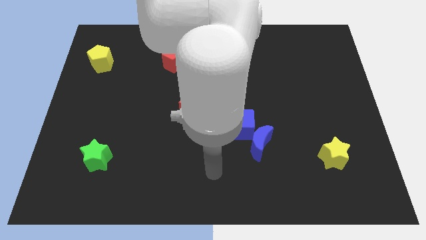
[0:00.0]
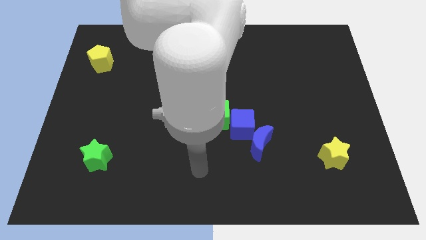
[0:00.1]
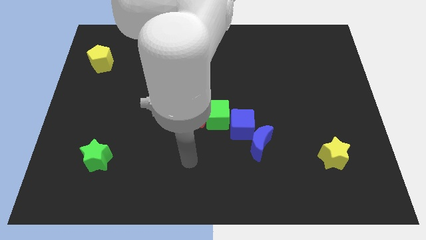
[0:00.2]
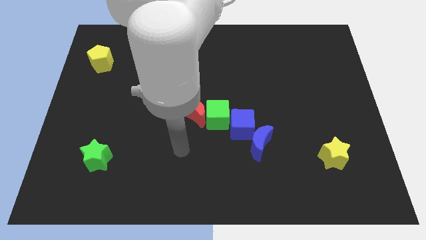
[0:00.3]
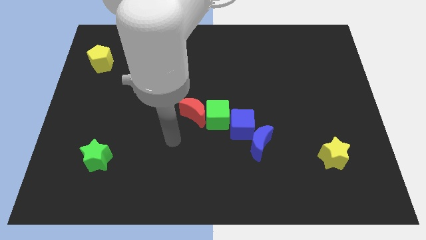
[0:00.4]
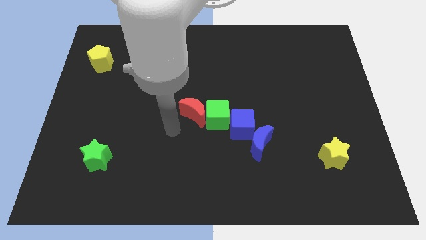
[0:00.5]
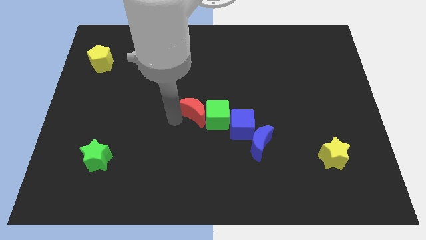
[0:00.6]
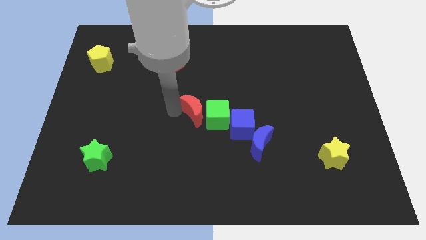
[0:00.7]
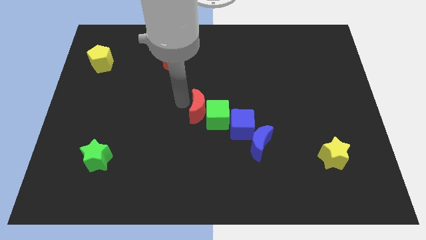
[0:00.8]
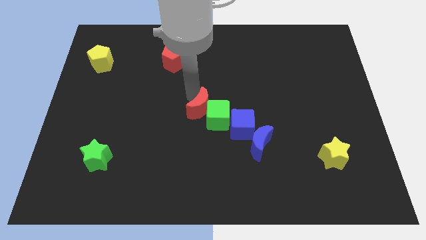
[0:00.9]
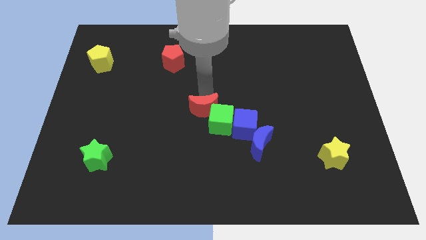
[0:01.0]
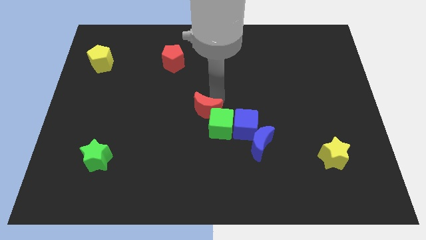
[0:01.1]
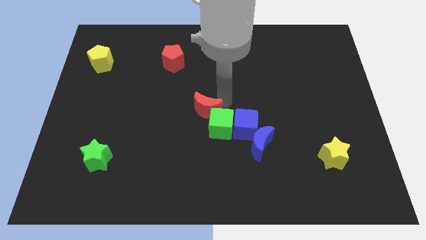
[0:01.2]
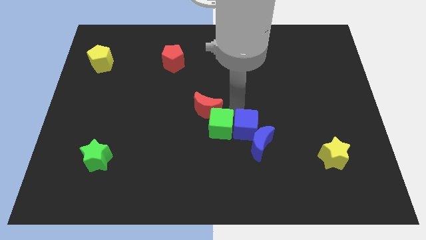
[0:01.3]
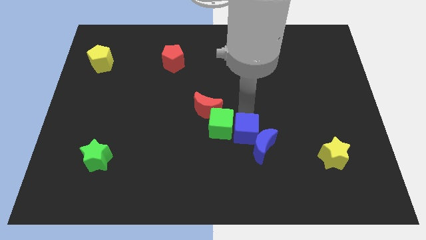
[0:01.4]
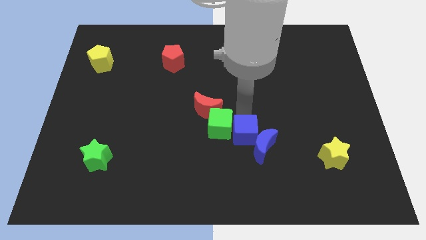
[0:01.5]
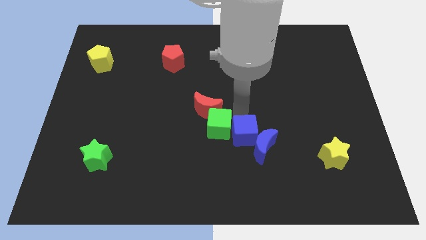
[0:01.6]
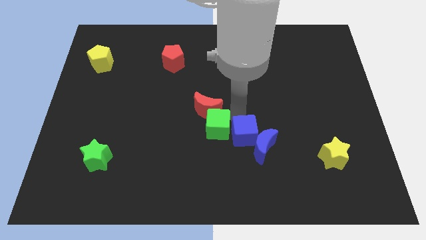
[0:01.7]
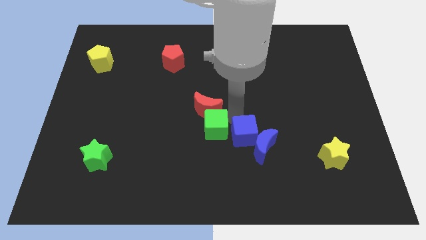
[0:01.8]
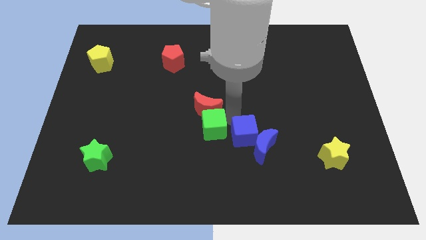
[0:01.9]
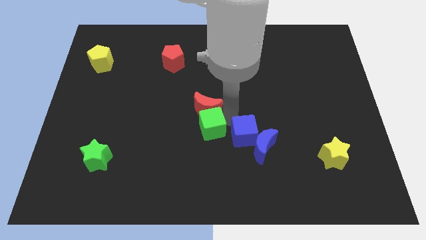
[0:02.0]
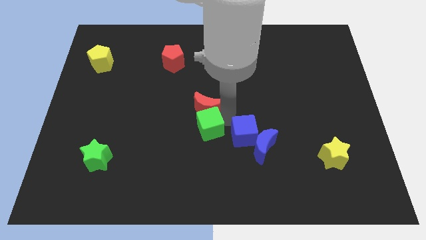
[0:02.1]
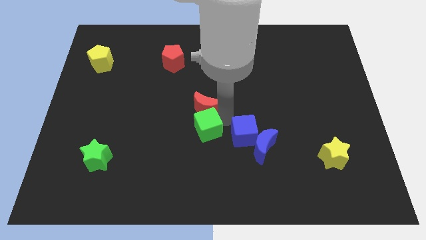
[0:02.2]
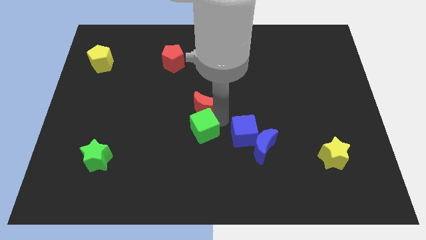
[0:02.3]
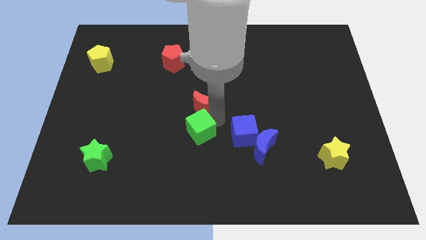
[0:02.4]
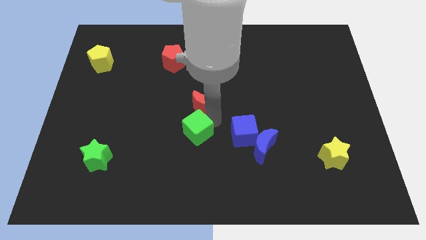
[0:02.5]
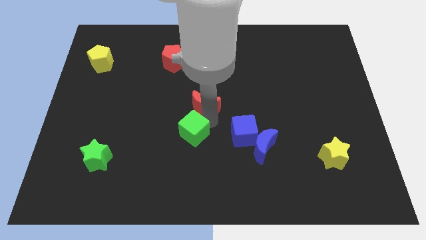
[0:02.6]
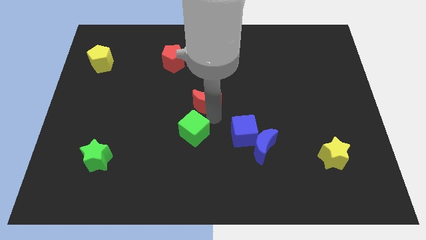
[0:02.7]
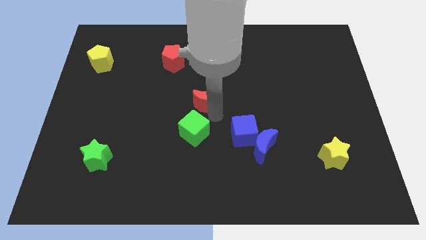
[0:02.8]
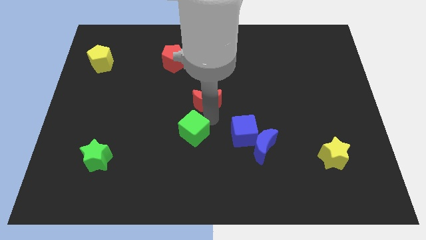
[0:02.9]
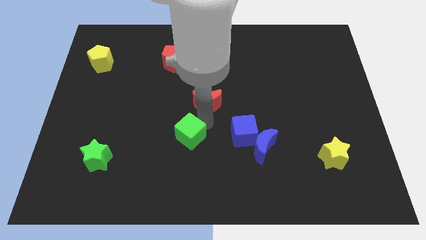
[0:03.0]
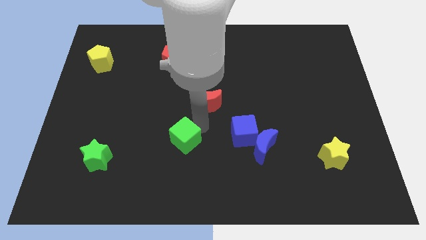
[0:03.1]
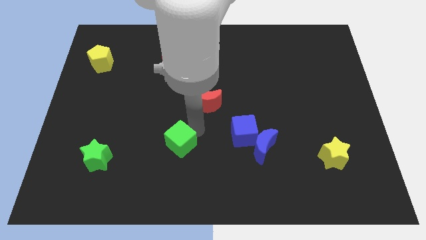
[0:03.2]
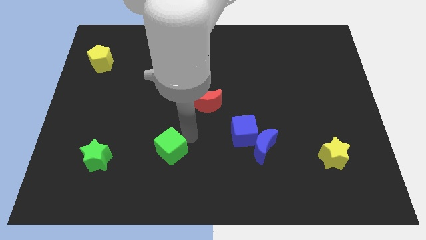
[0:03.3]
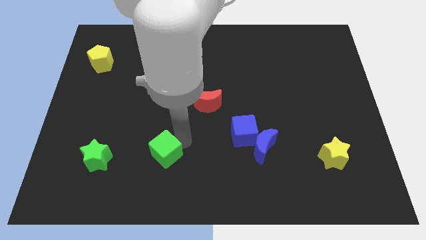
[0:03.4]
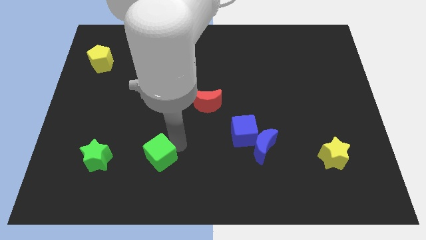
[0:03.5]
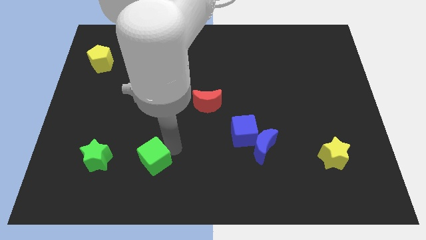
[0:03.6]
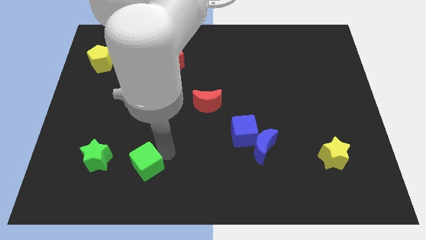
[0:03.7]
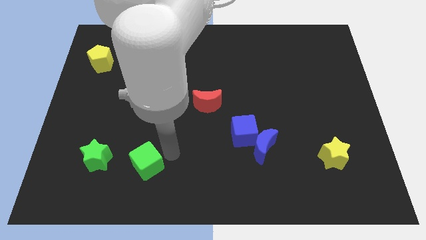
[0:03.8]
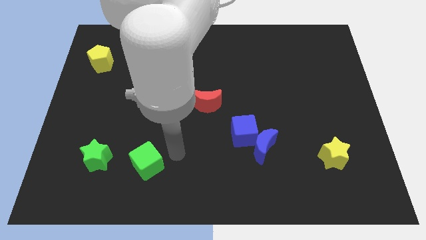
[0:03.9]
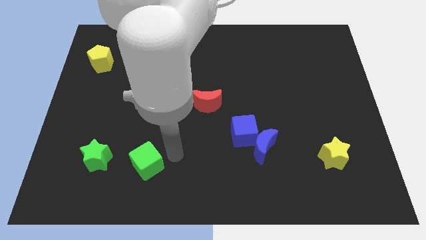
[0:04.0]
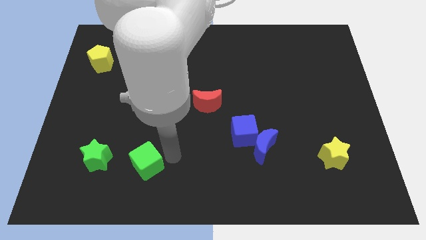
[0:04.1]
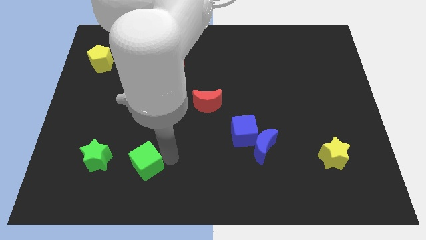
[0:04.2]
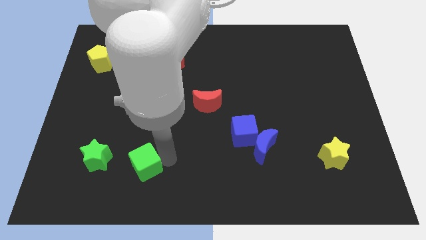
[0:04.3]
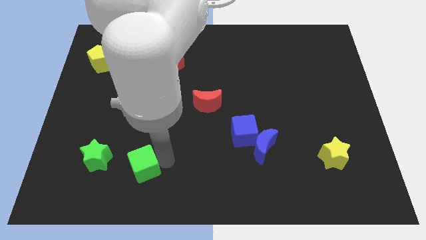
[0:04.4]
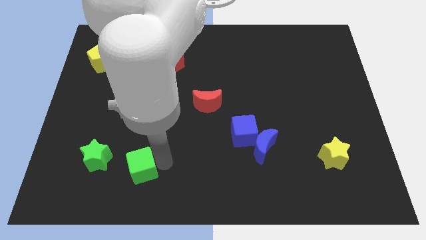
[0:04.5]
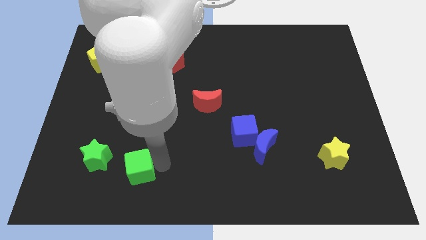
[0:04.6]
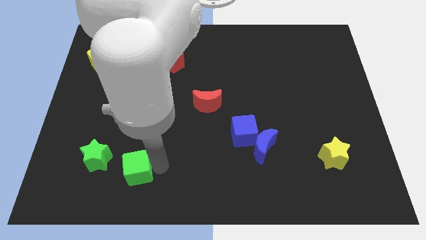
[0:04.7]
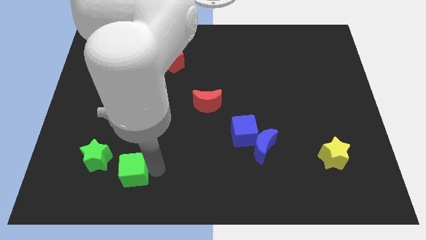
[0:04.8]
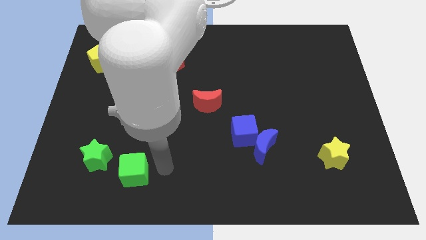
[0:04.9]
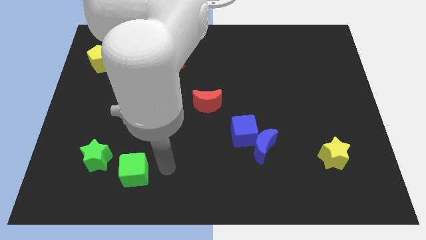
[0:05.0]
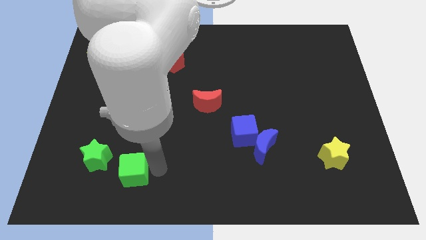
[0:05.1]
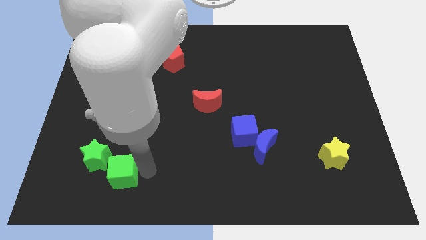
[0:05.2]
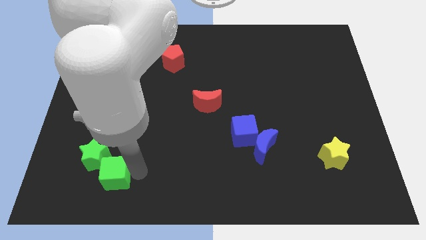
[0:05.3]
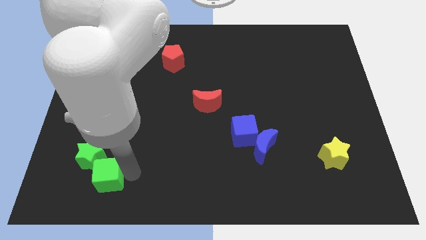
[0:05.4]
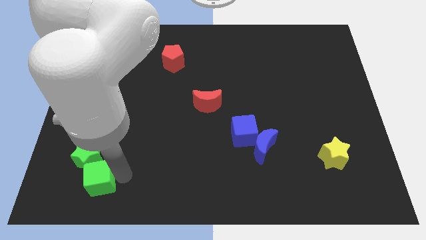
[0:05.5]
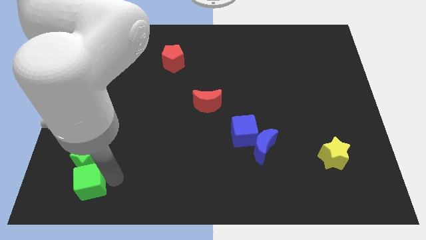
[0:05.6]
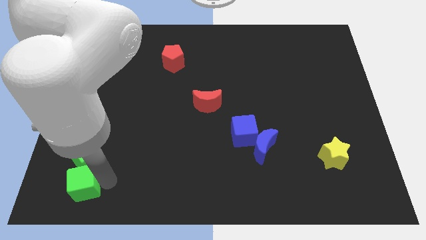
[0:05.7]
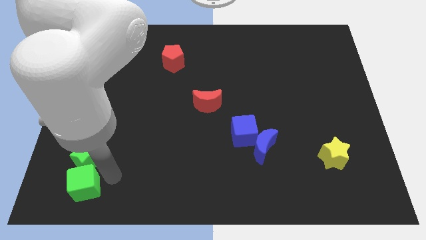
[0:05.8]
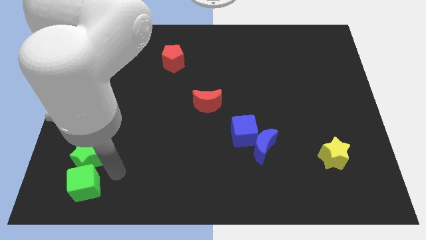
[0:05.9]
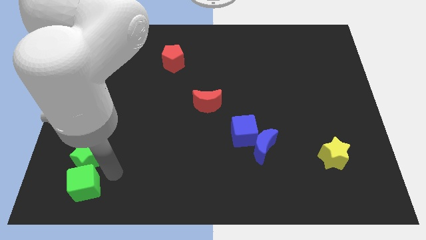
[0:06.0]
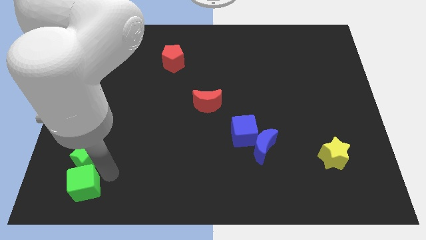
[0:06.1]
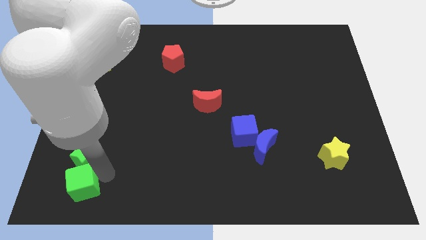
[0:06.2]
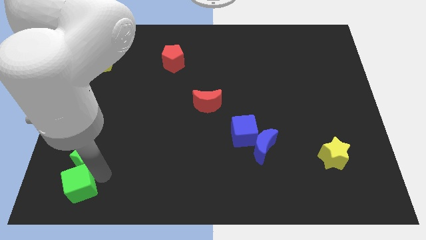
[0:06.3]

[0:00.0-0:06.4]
move the green cube to the lower left corner
